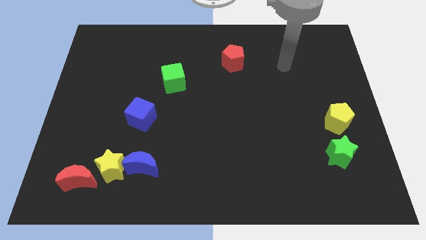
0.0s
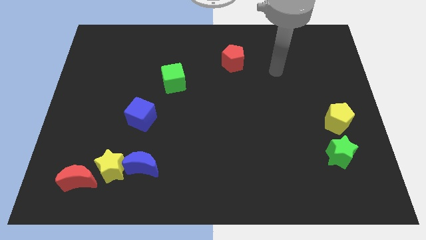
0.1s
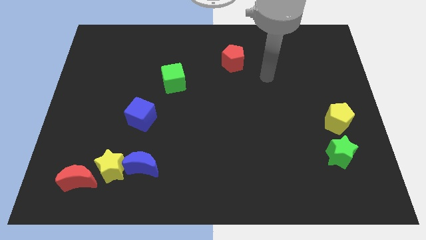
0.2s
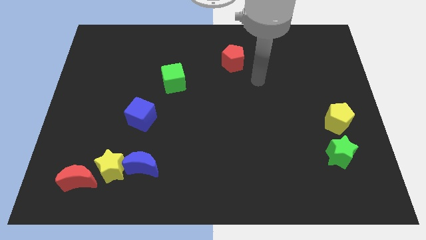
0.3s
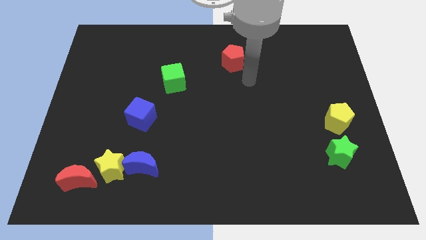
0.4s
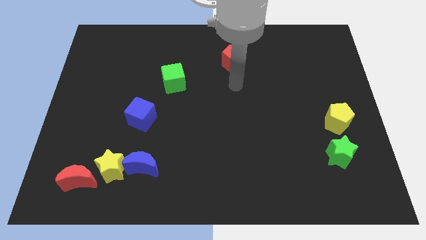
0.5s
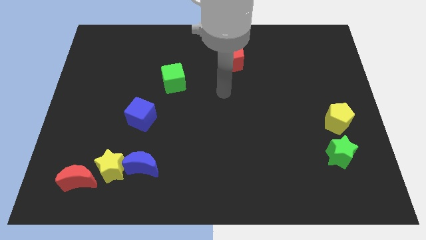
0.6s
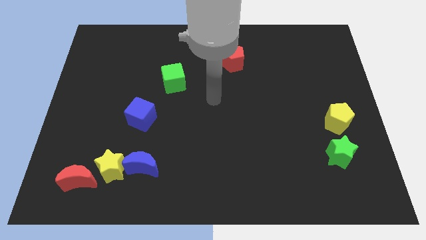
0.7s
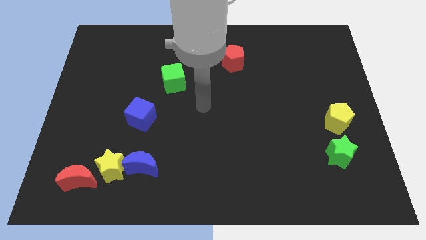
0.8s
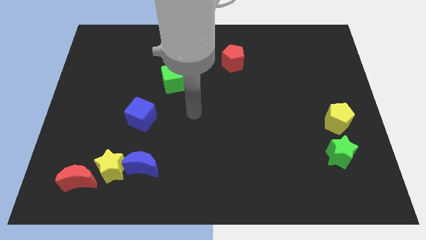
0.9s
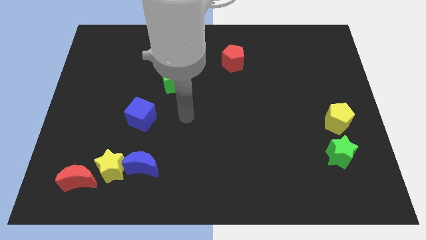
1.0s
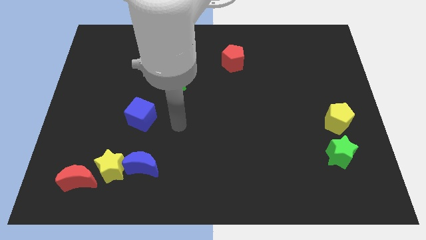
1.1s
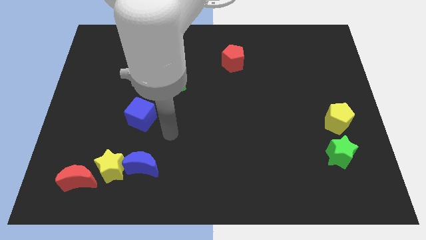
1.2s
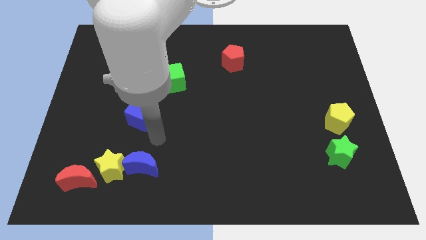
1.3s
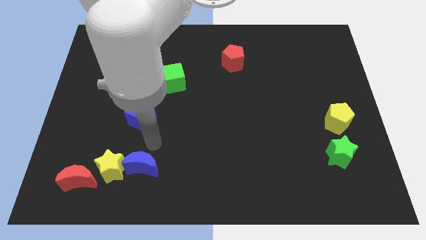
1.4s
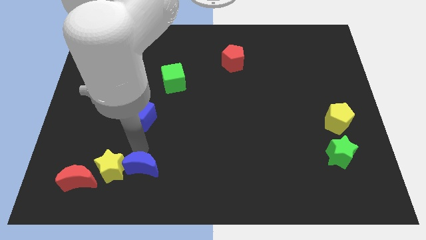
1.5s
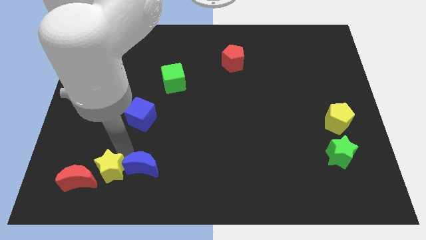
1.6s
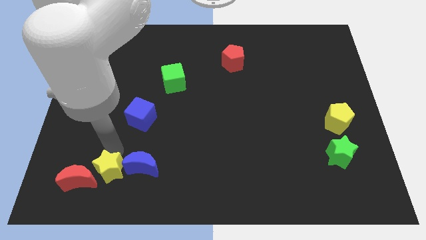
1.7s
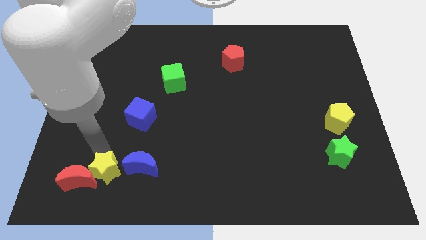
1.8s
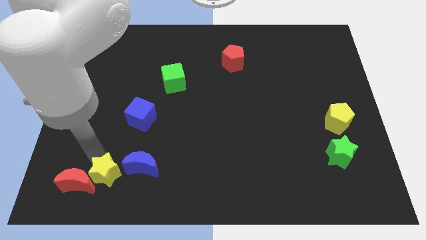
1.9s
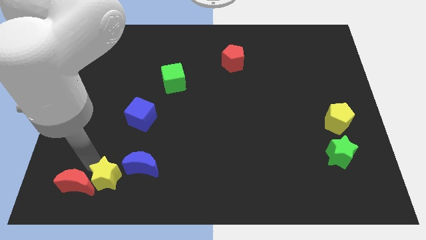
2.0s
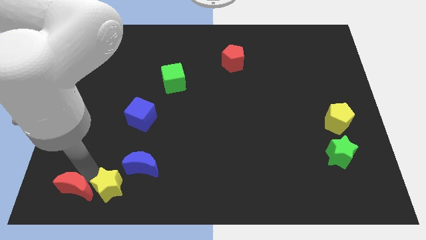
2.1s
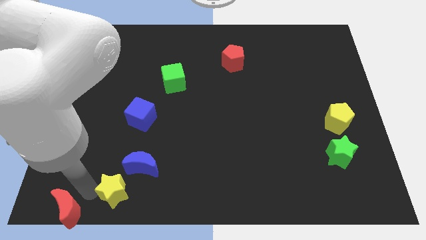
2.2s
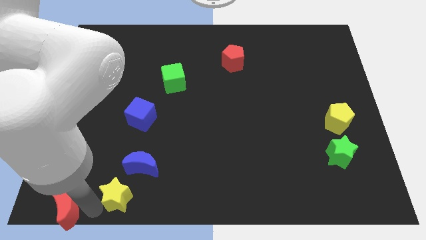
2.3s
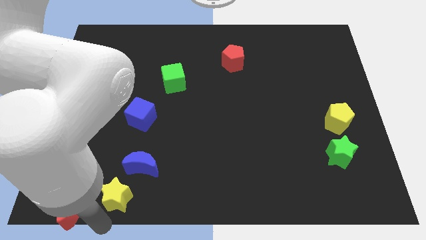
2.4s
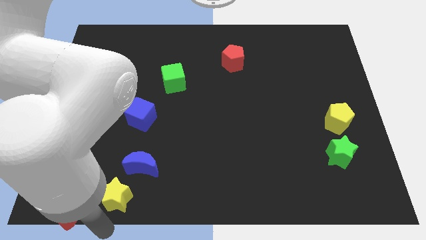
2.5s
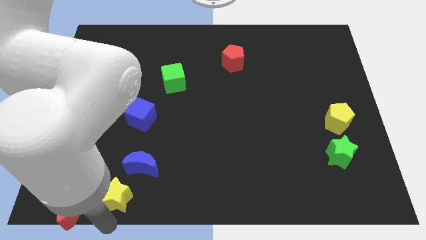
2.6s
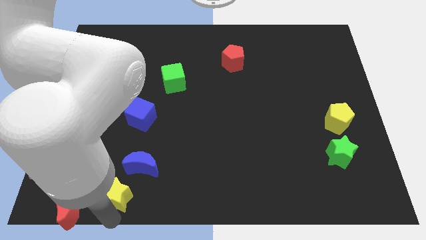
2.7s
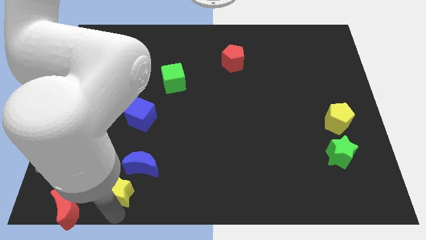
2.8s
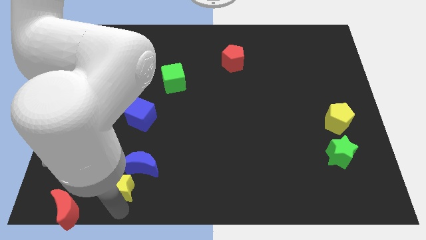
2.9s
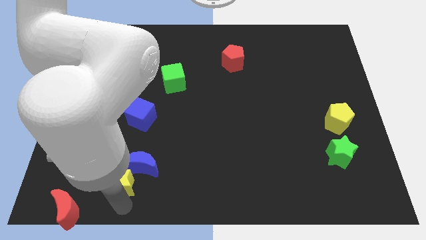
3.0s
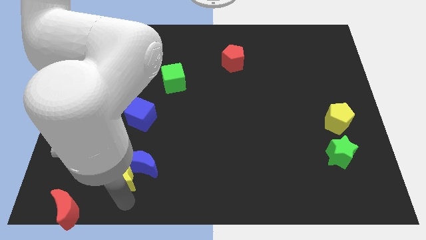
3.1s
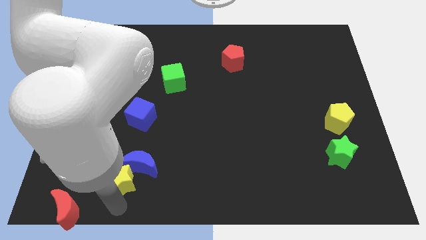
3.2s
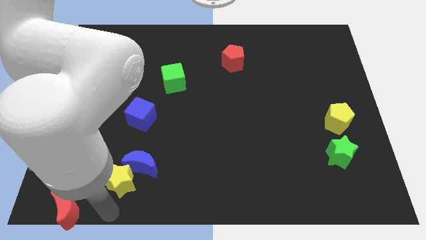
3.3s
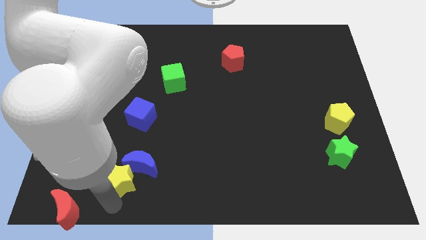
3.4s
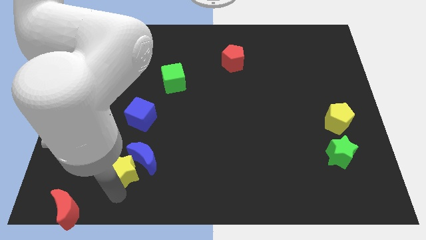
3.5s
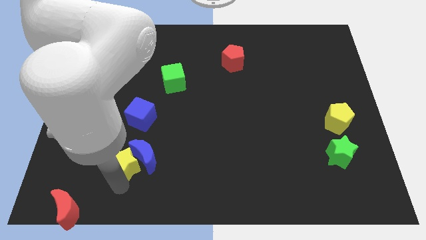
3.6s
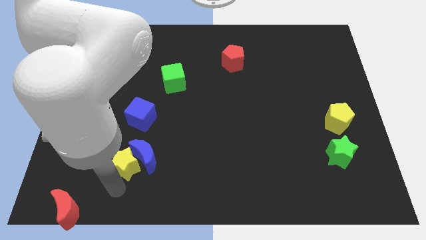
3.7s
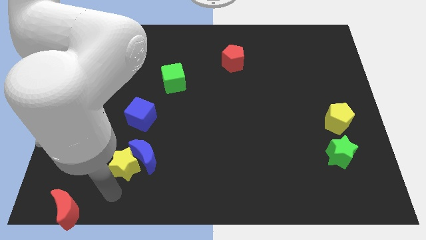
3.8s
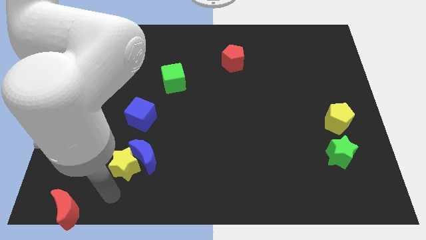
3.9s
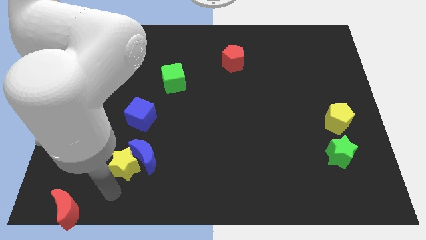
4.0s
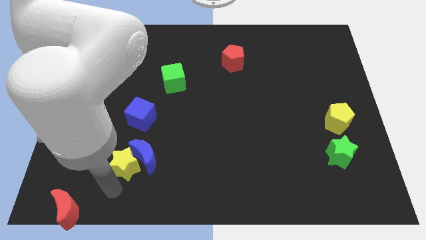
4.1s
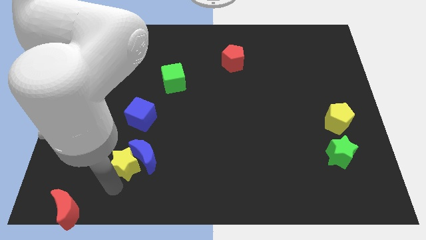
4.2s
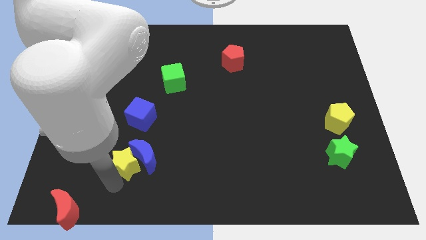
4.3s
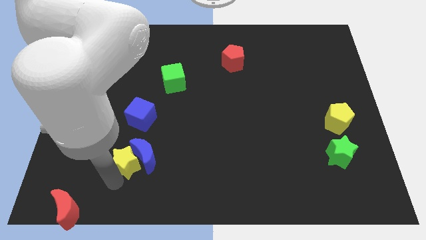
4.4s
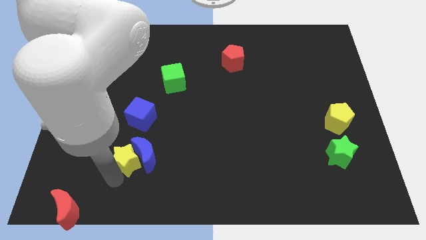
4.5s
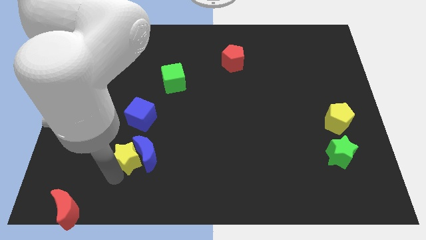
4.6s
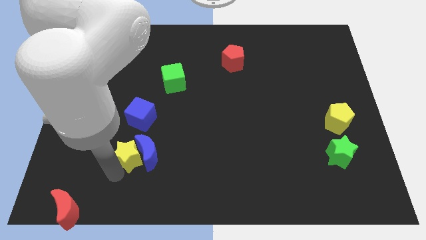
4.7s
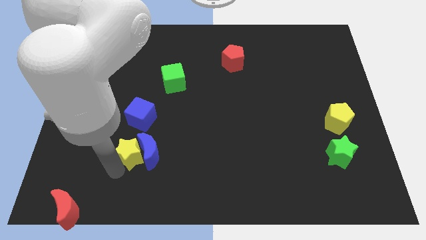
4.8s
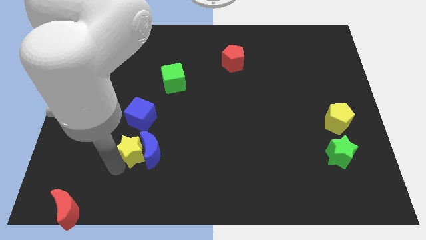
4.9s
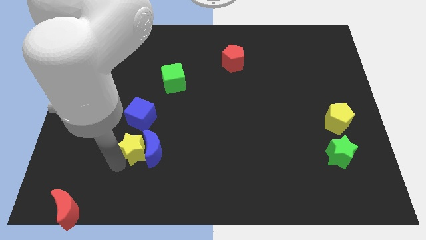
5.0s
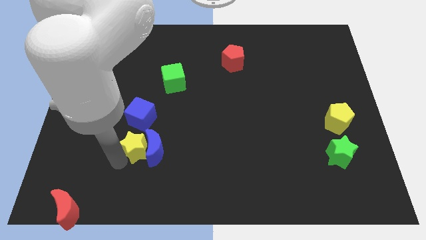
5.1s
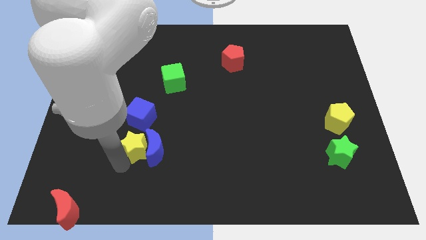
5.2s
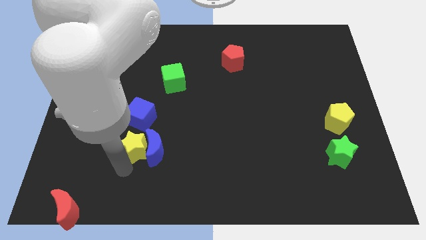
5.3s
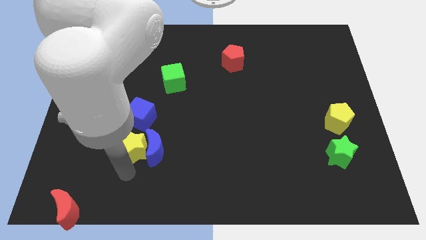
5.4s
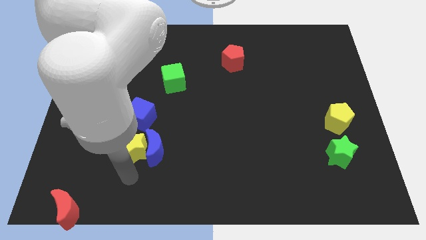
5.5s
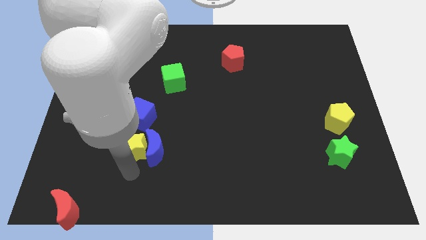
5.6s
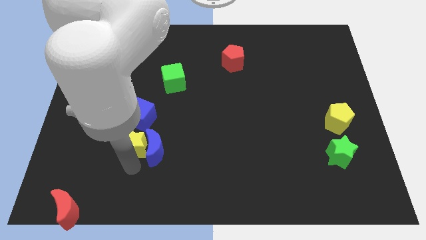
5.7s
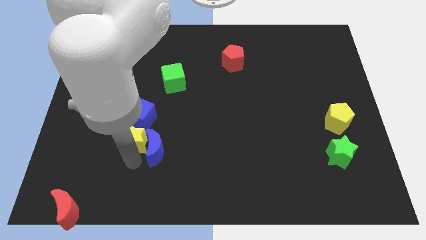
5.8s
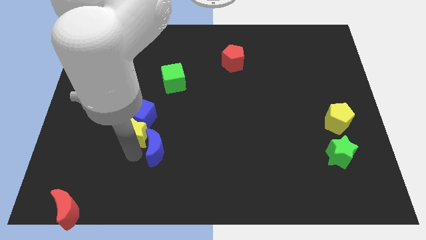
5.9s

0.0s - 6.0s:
slide the yellow star next to the blue cube

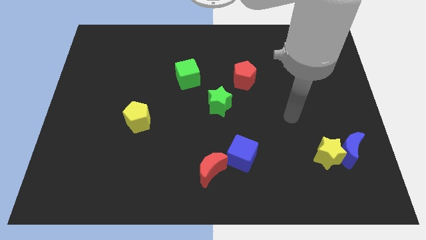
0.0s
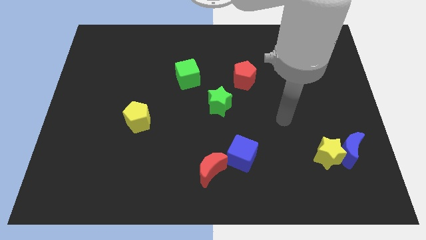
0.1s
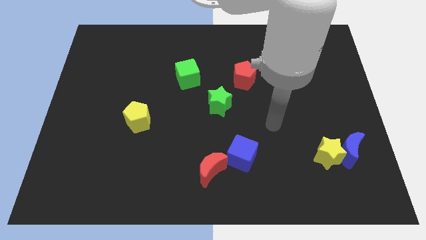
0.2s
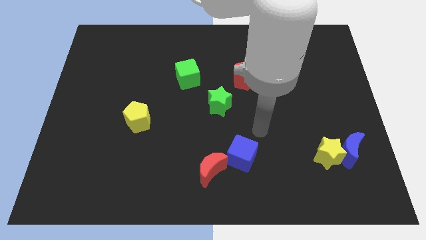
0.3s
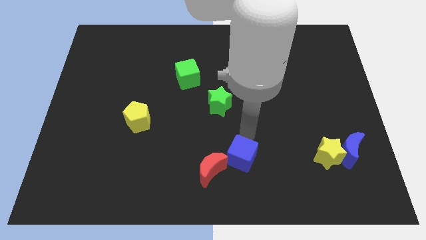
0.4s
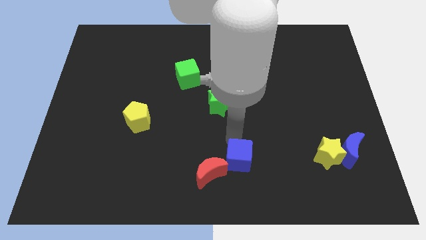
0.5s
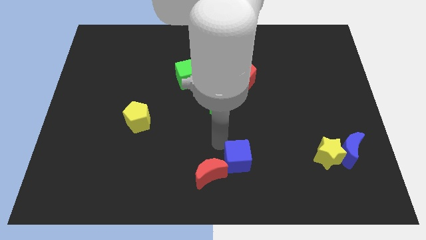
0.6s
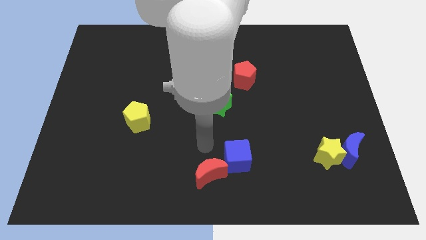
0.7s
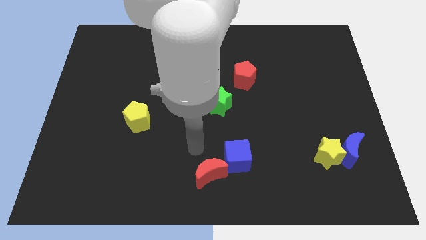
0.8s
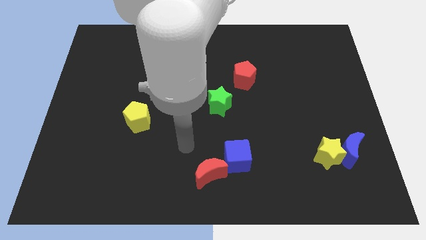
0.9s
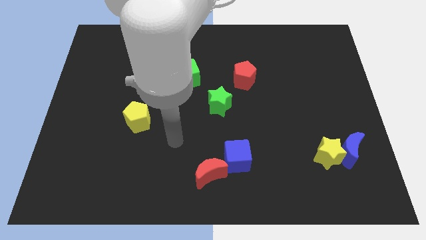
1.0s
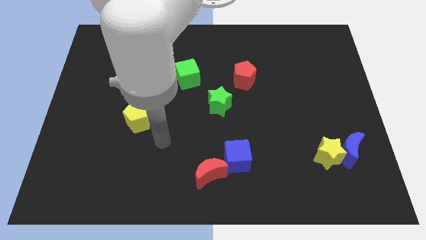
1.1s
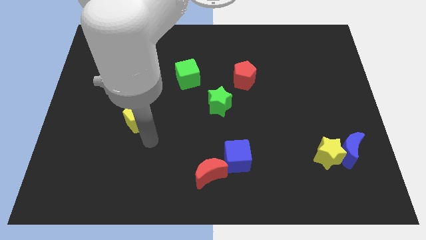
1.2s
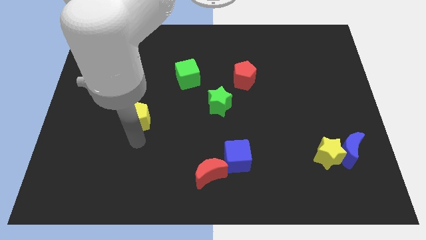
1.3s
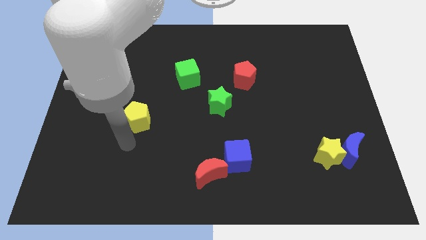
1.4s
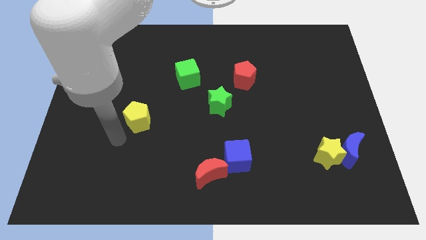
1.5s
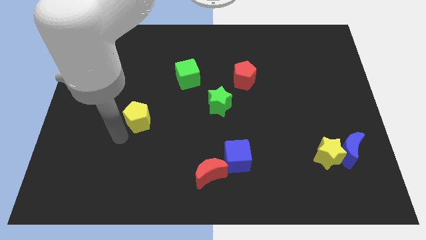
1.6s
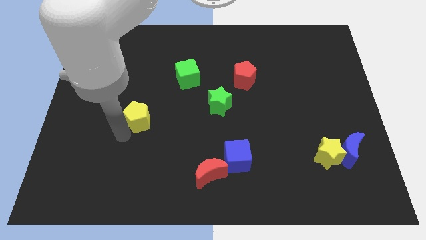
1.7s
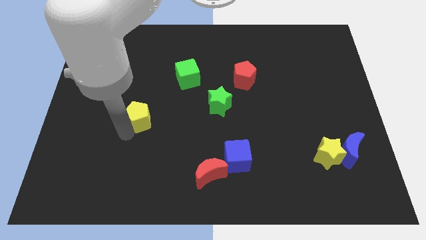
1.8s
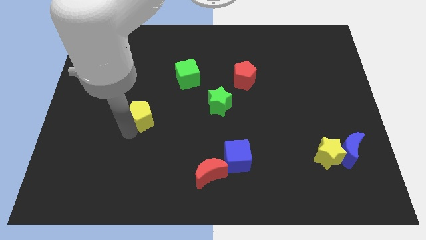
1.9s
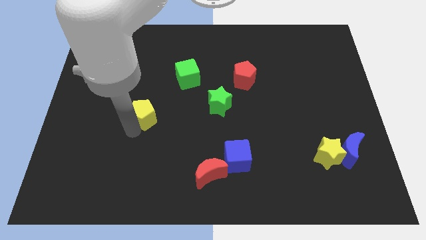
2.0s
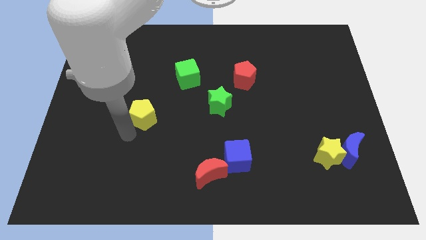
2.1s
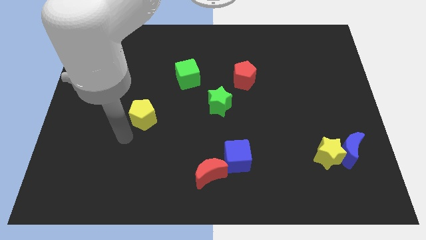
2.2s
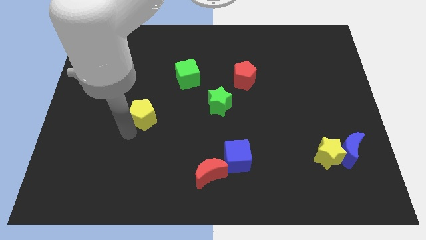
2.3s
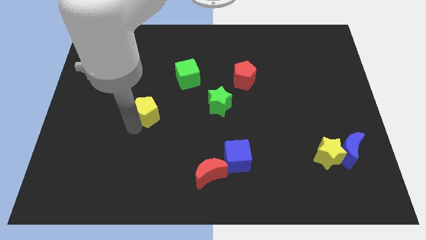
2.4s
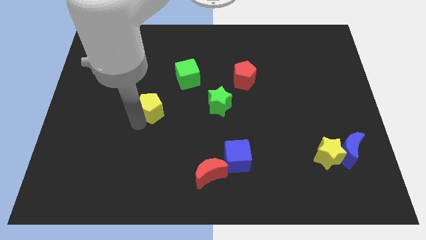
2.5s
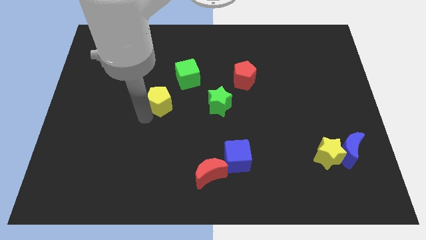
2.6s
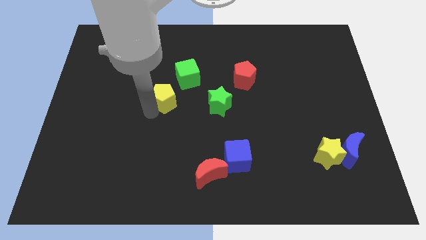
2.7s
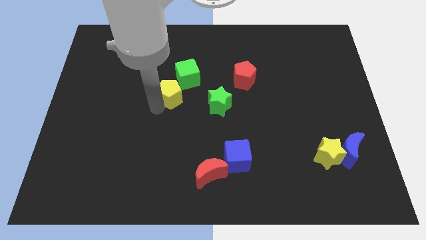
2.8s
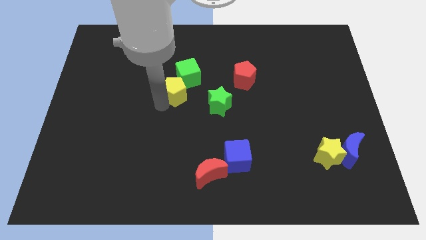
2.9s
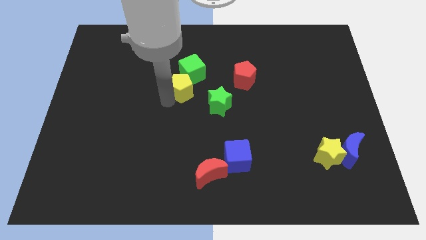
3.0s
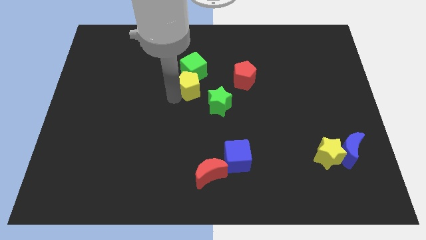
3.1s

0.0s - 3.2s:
put the yellow pentagon towards the green cube
